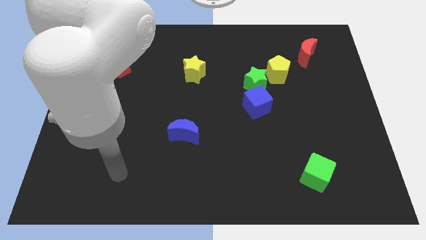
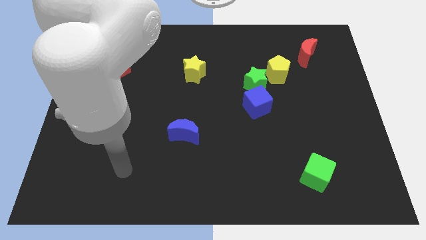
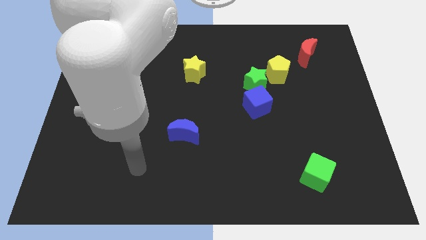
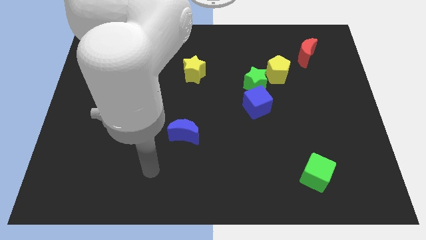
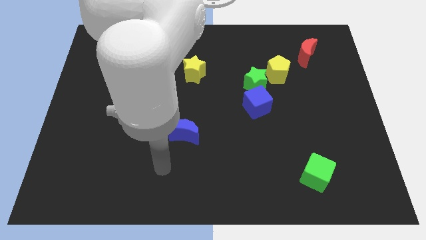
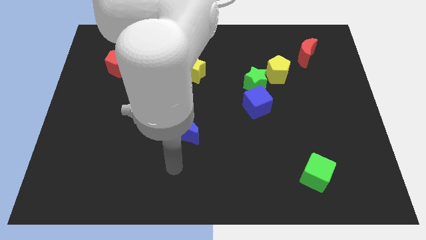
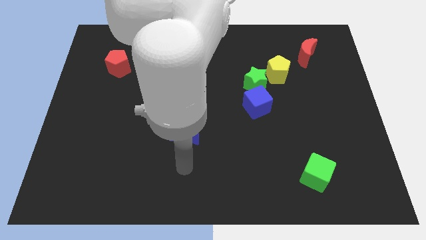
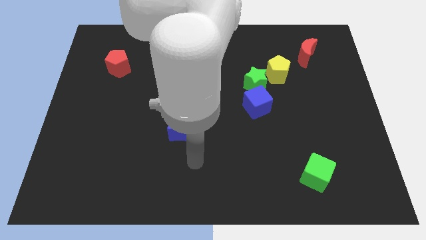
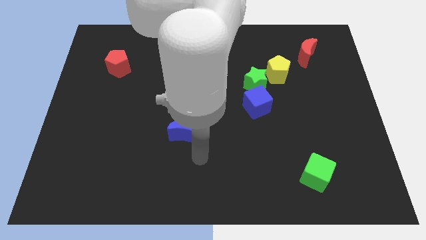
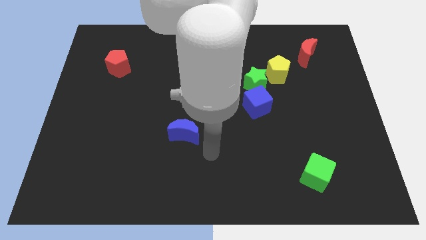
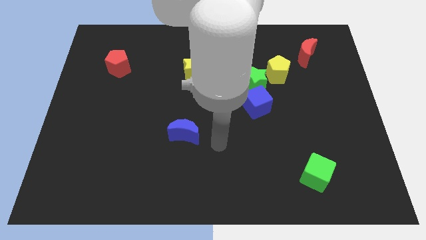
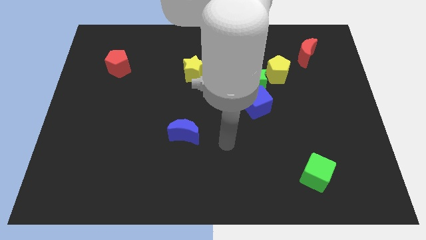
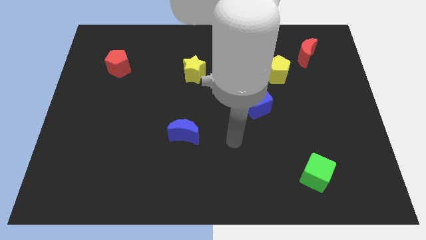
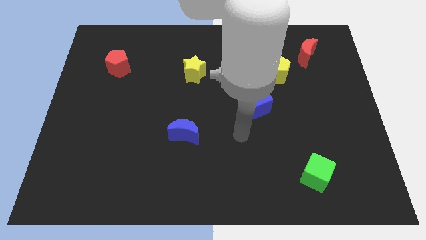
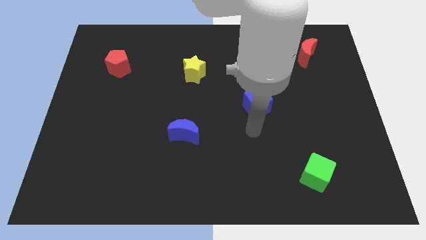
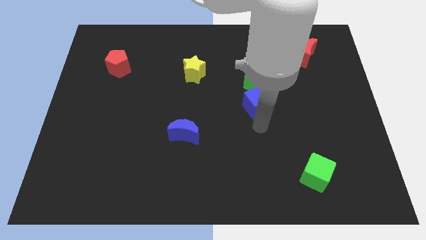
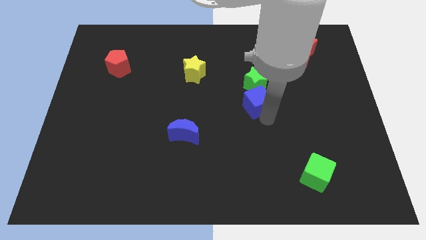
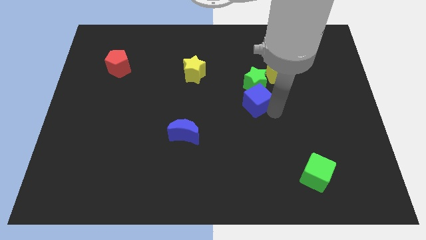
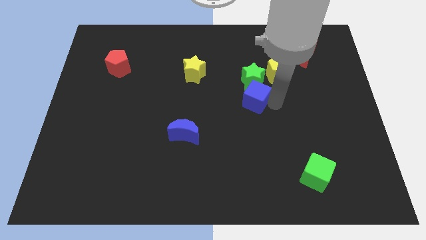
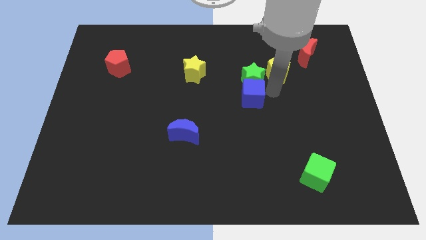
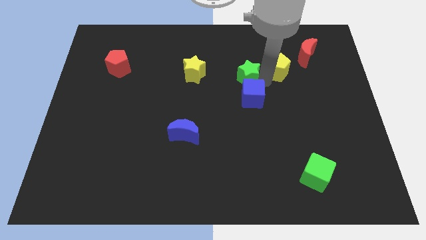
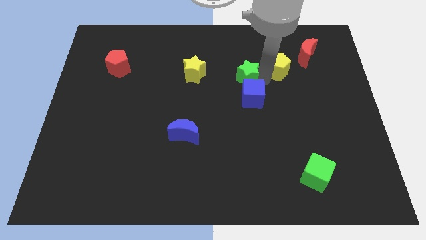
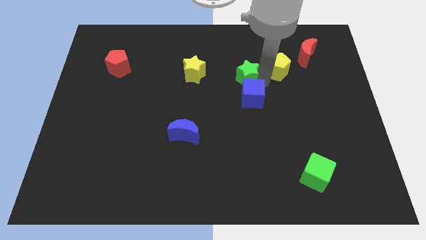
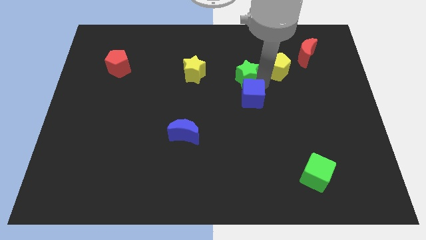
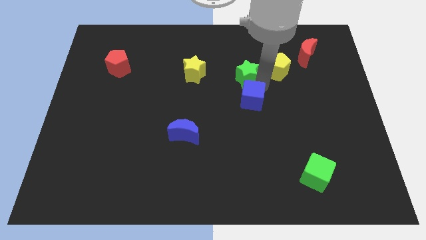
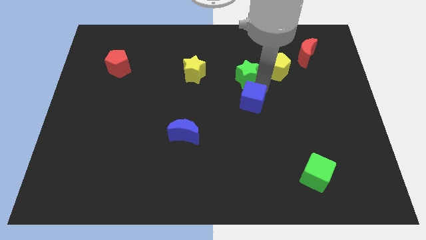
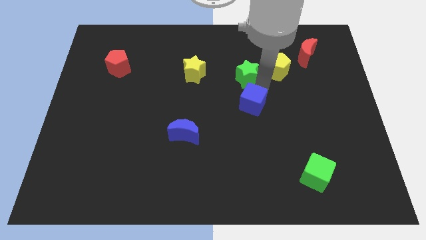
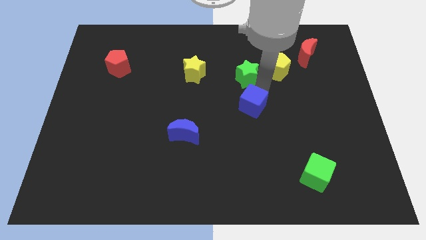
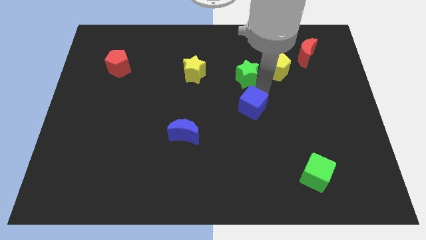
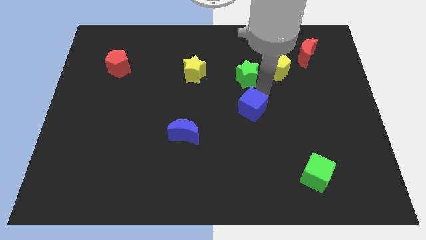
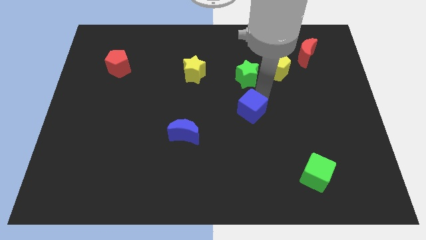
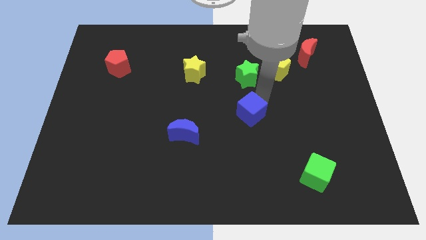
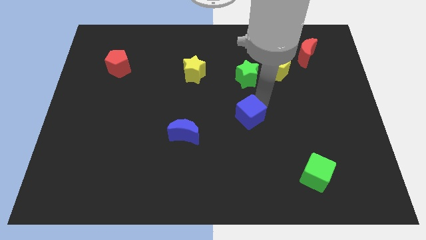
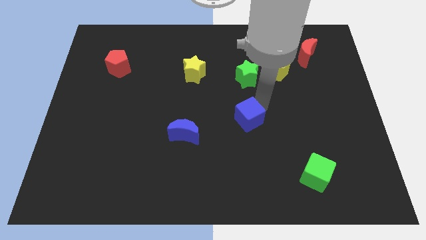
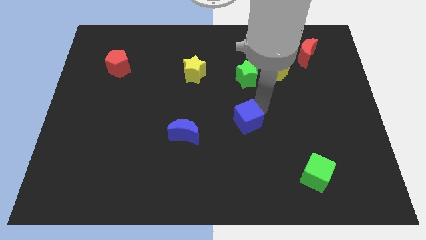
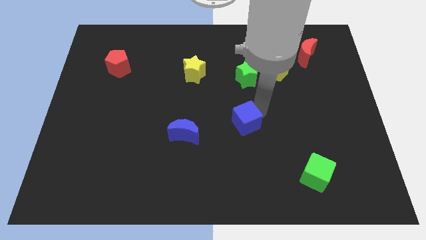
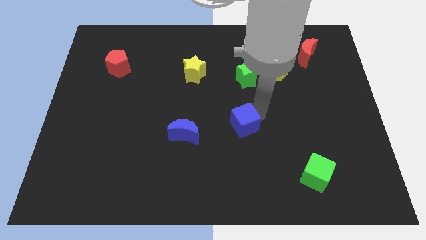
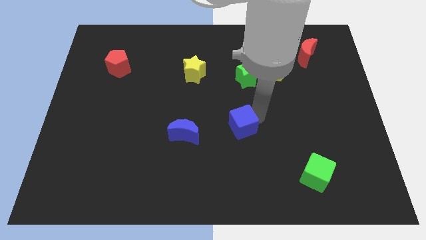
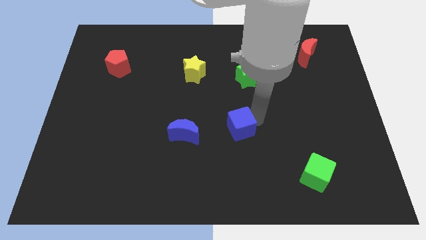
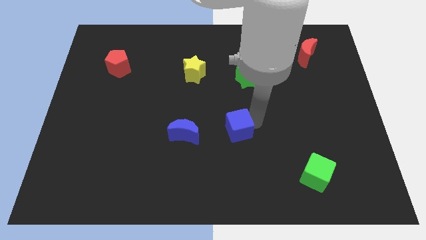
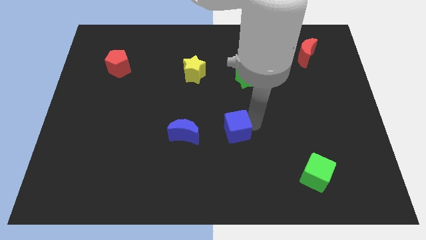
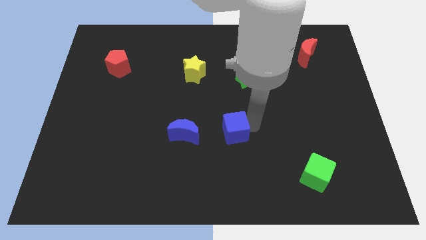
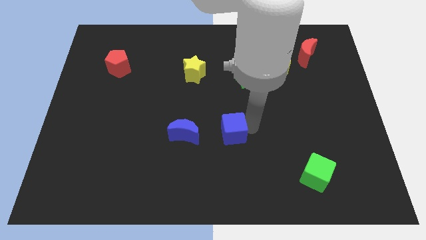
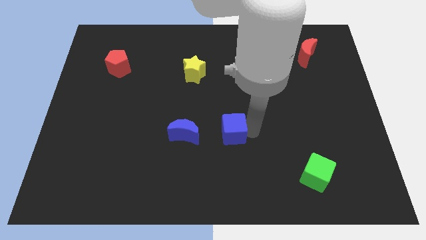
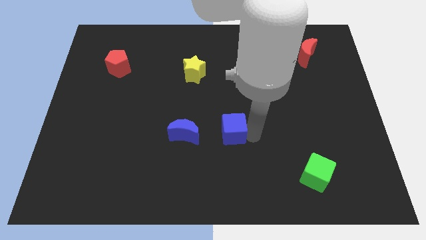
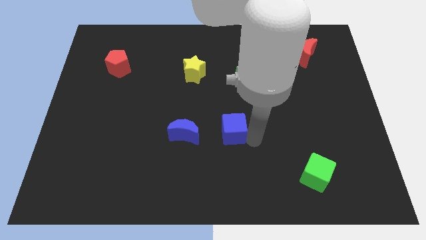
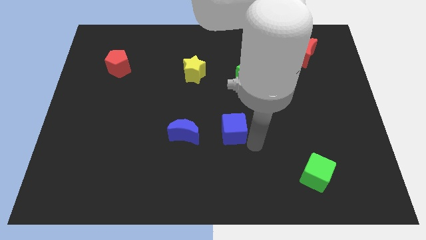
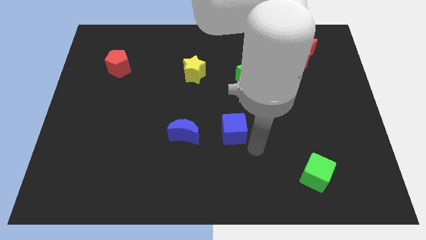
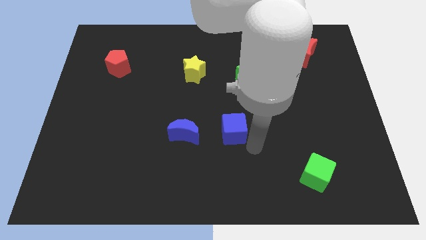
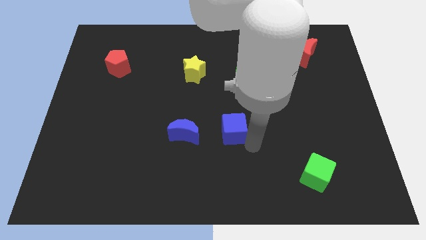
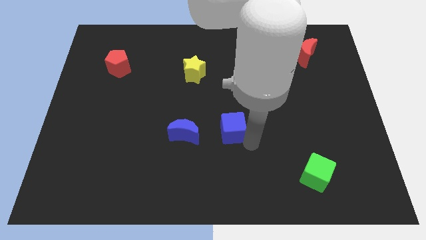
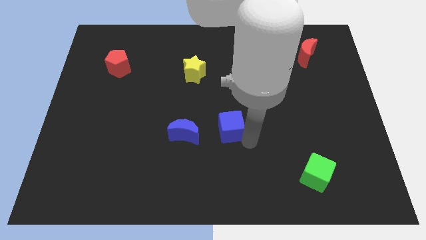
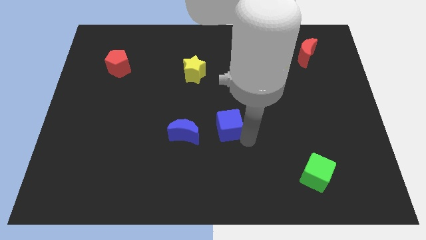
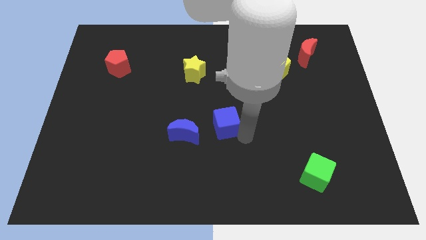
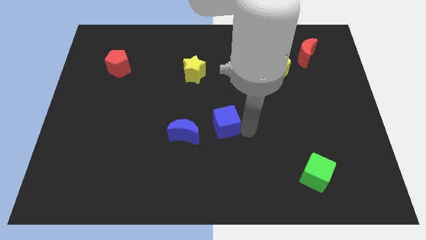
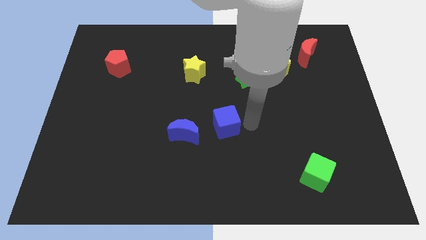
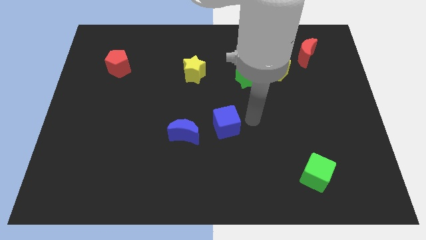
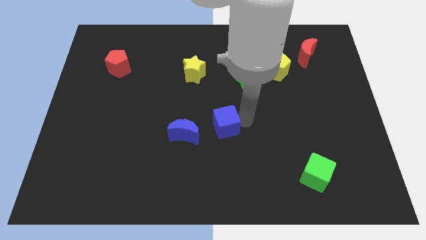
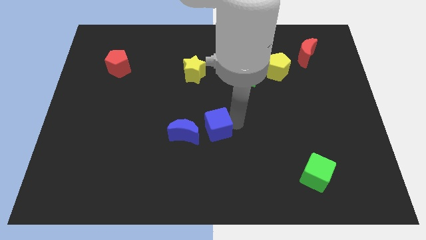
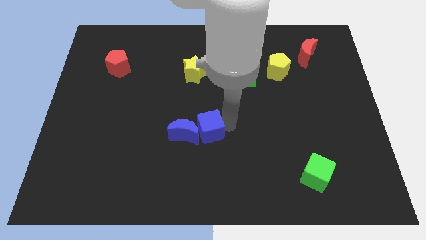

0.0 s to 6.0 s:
put the blue cube next to the blue moon

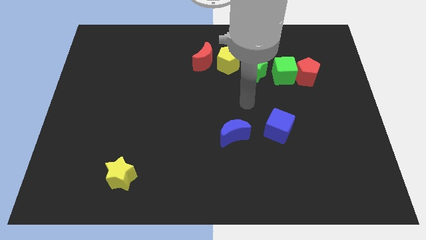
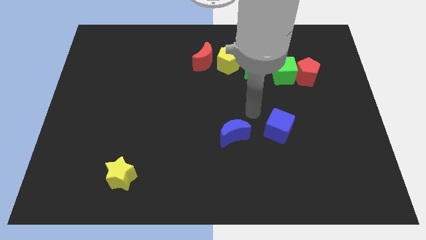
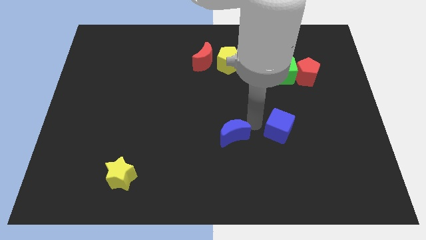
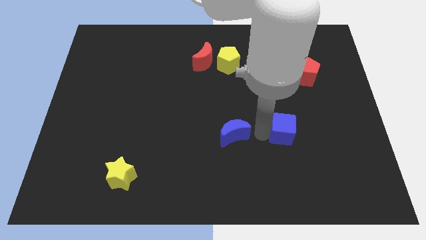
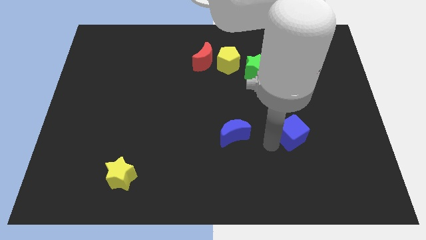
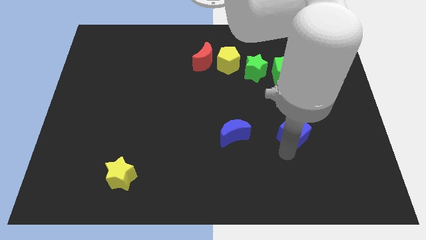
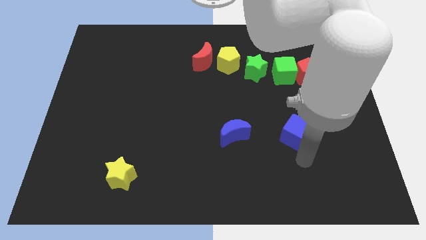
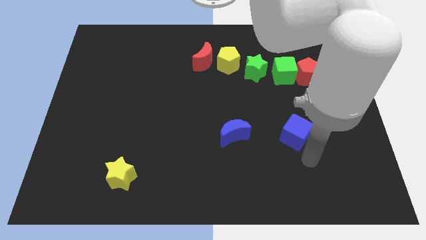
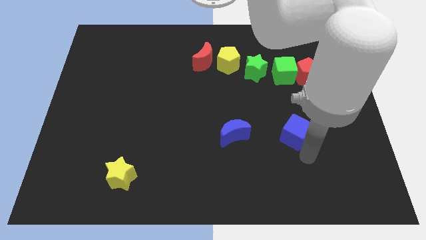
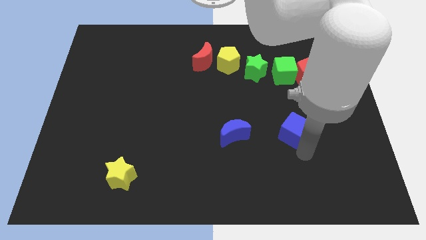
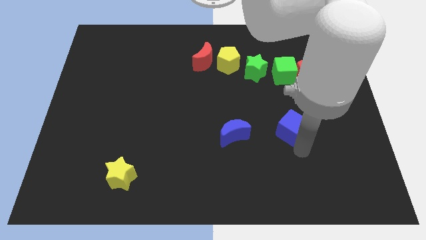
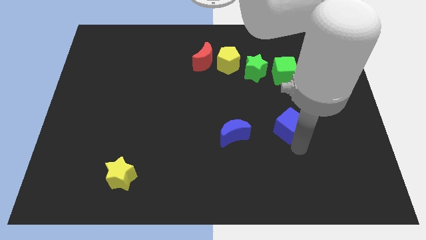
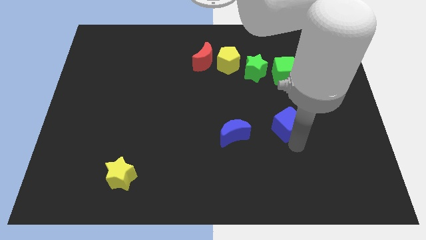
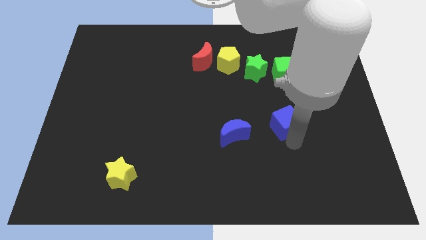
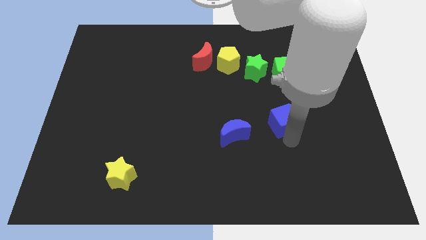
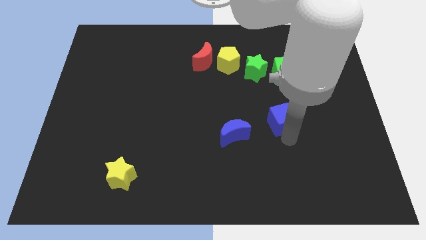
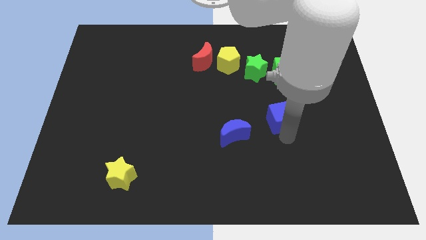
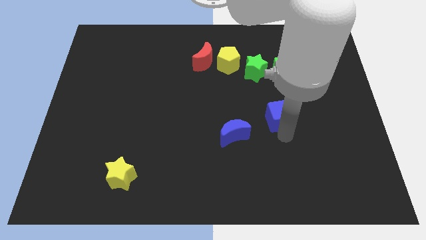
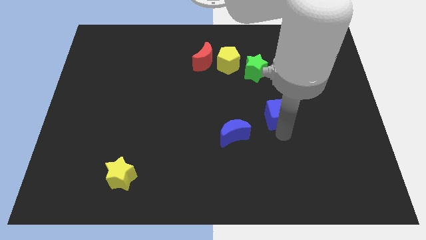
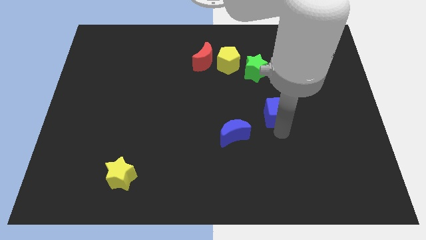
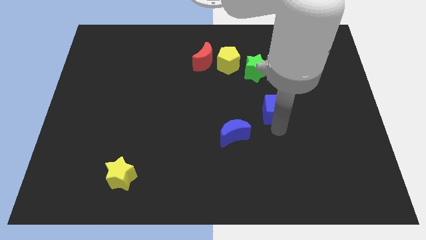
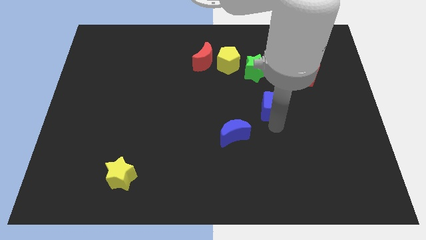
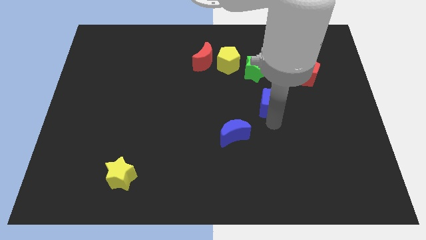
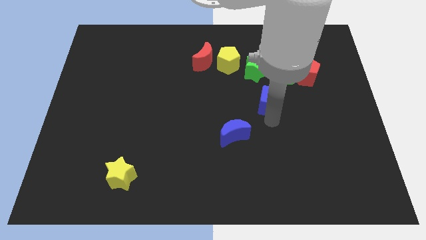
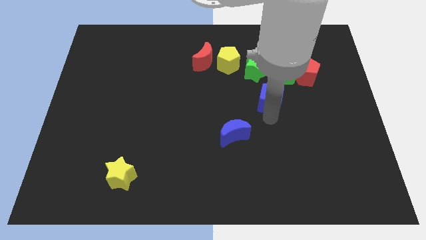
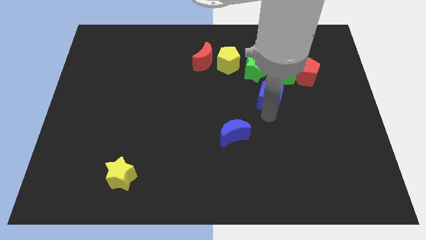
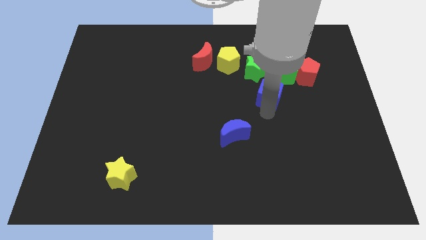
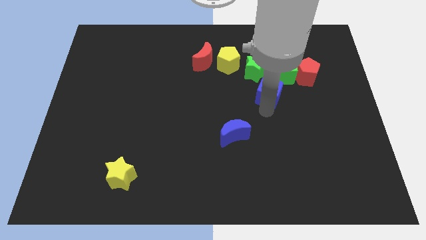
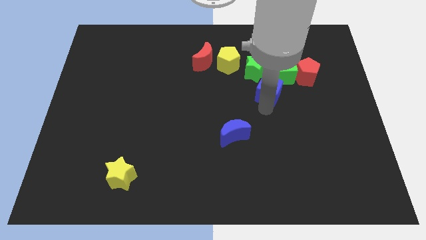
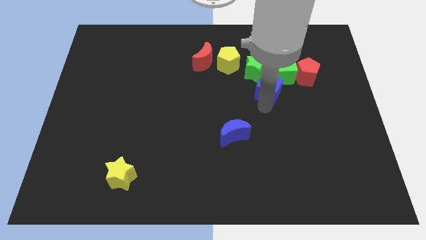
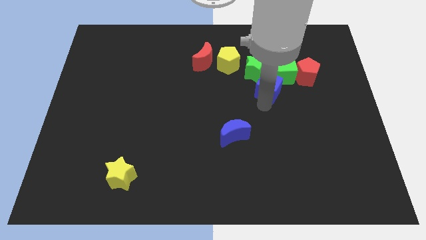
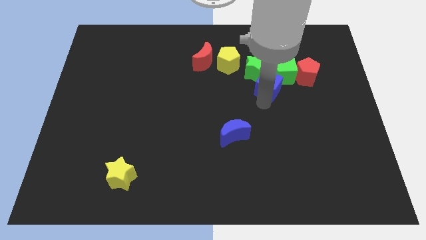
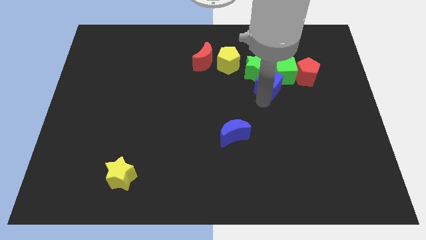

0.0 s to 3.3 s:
put the blue cube to the green cube
